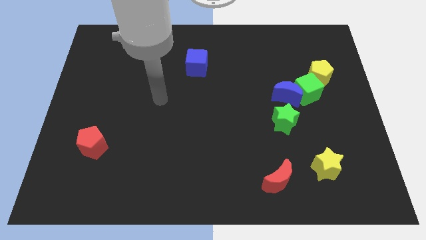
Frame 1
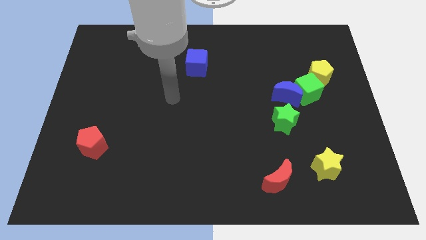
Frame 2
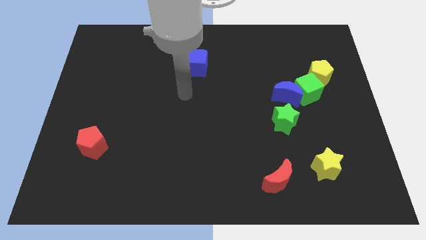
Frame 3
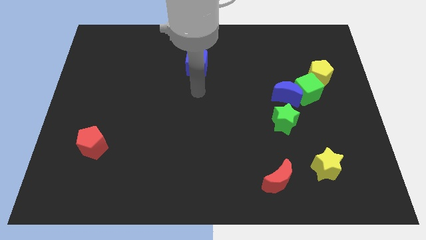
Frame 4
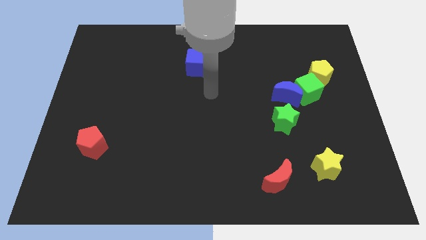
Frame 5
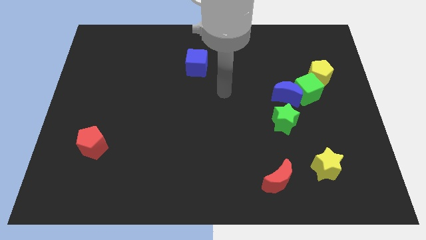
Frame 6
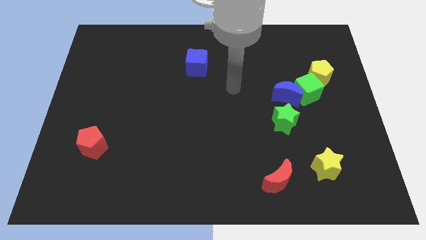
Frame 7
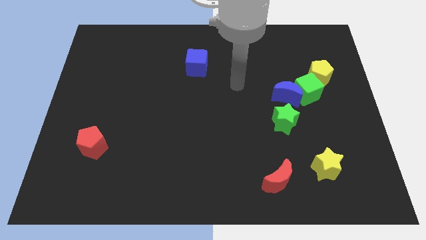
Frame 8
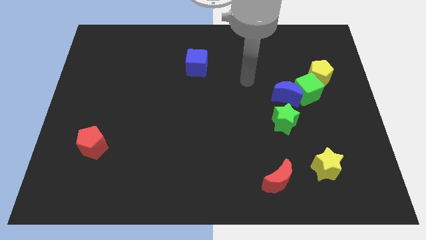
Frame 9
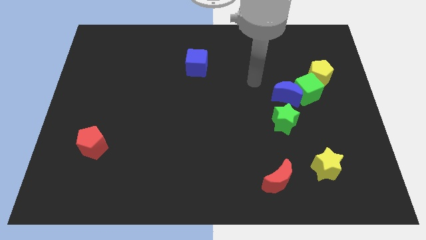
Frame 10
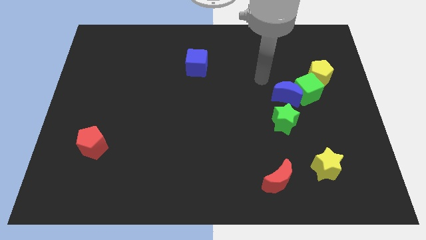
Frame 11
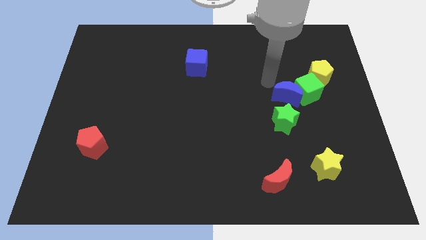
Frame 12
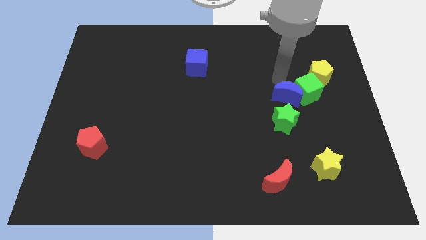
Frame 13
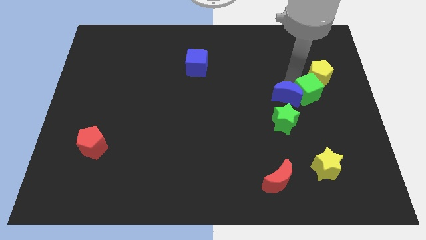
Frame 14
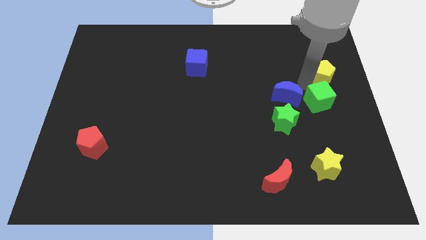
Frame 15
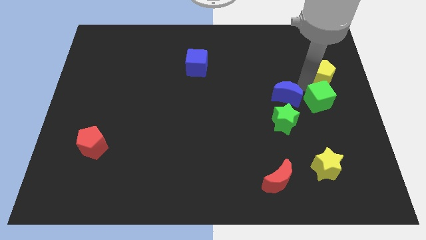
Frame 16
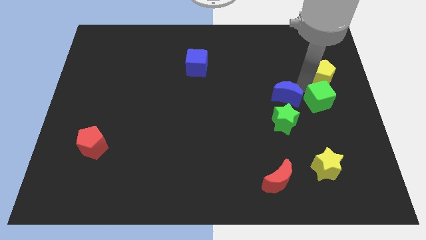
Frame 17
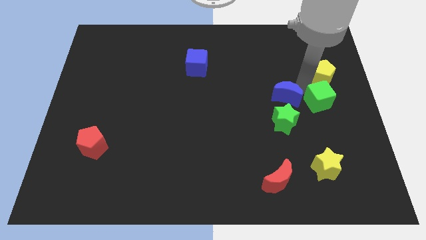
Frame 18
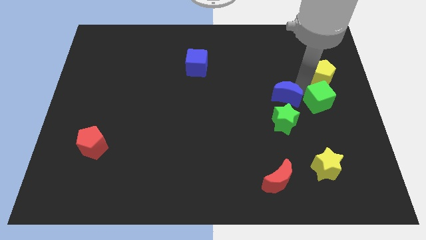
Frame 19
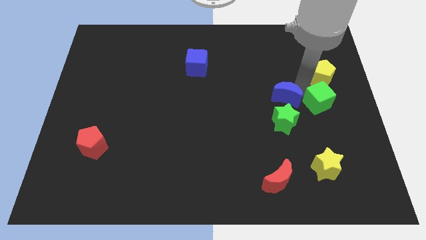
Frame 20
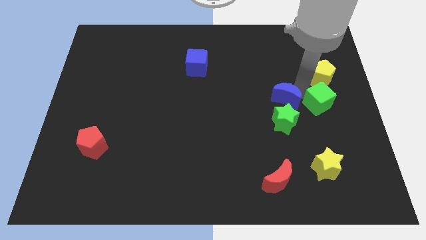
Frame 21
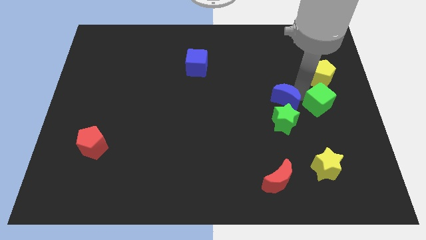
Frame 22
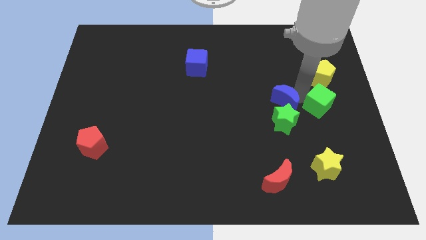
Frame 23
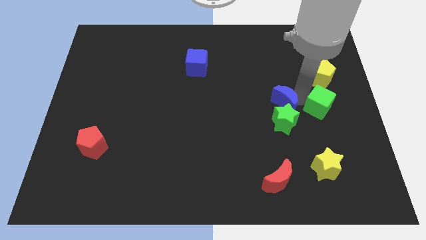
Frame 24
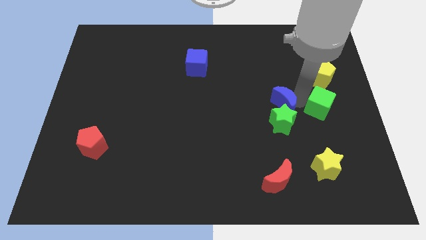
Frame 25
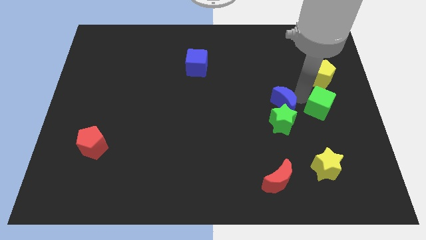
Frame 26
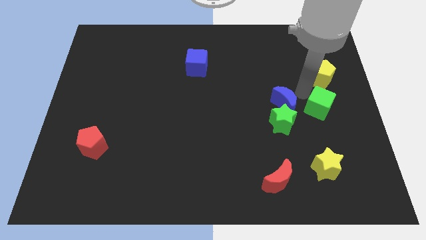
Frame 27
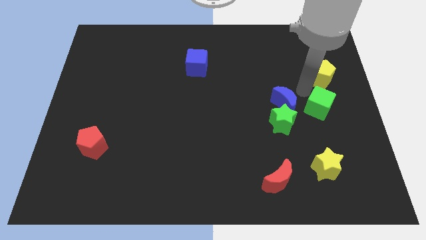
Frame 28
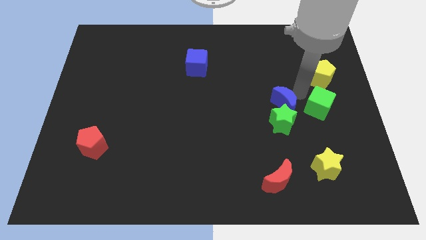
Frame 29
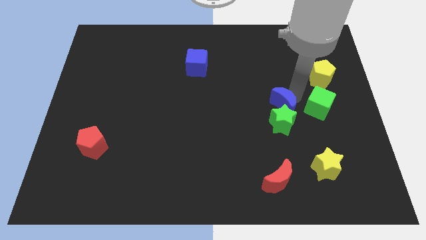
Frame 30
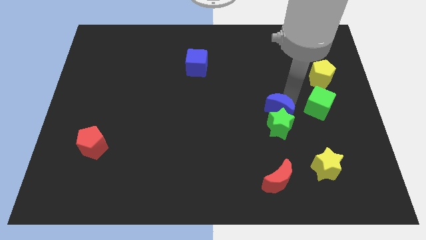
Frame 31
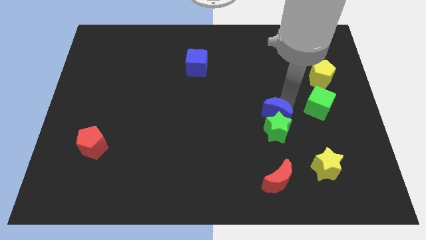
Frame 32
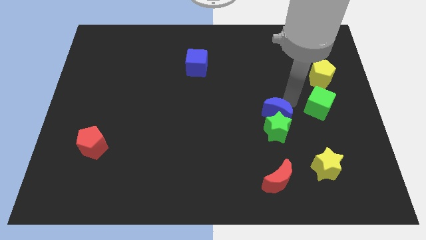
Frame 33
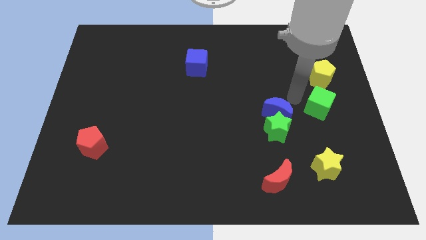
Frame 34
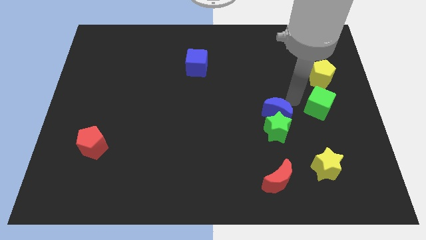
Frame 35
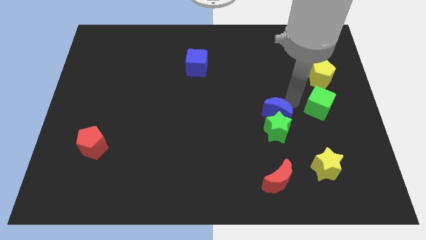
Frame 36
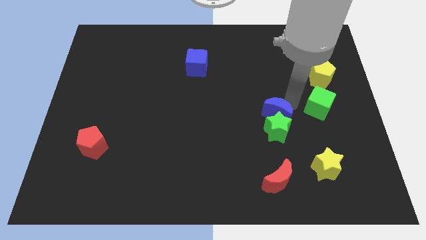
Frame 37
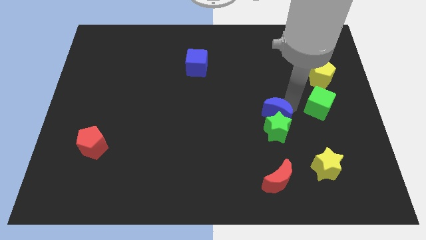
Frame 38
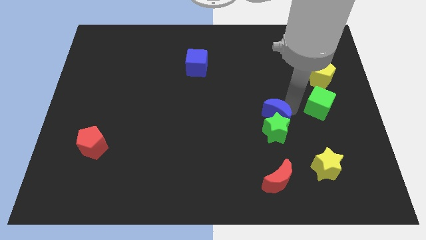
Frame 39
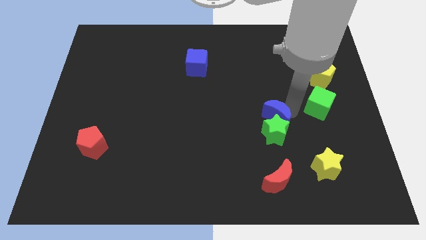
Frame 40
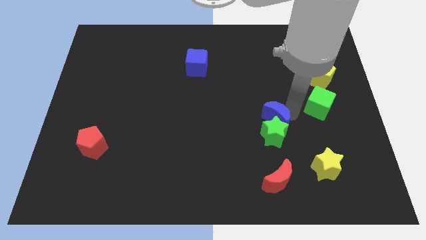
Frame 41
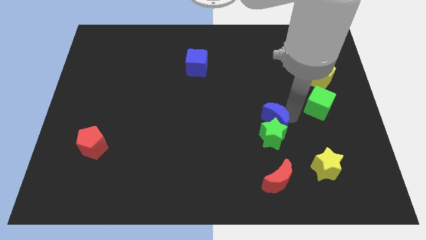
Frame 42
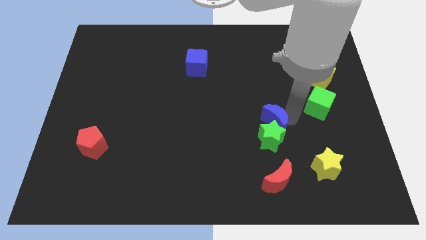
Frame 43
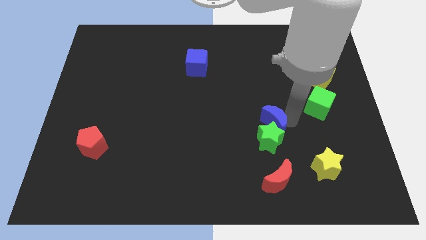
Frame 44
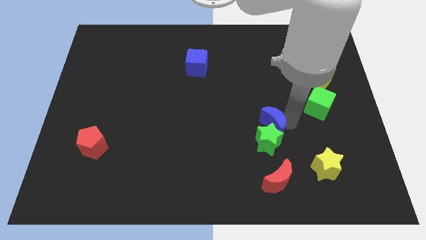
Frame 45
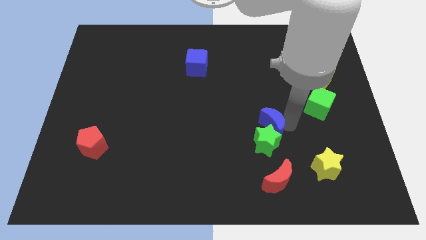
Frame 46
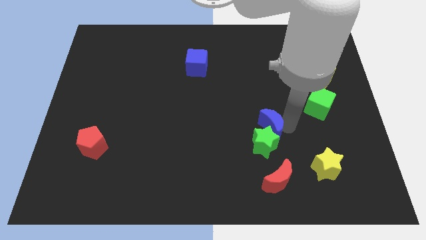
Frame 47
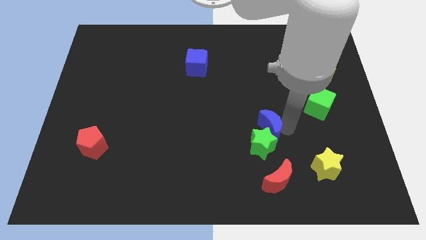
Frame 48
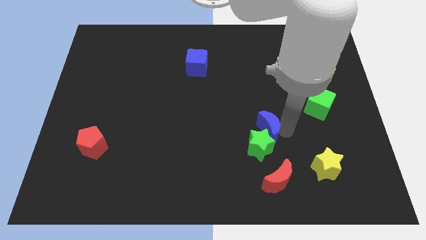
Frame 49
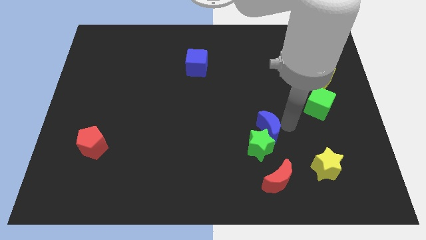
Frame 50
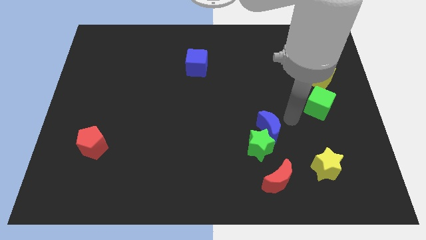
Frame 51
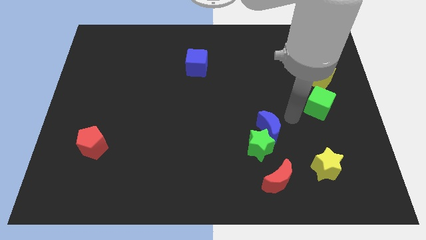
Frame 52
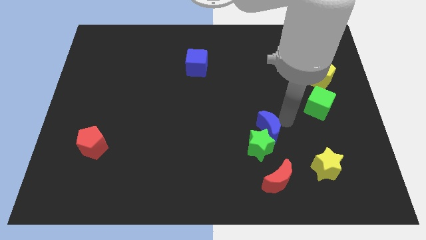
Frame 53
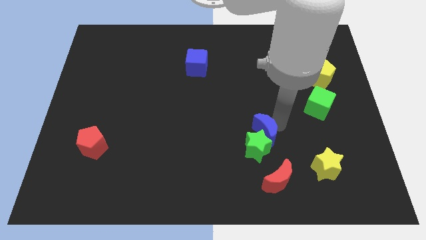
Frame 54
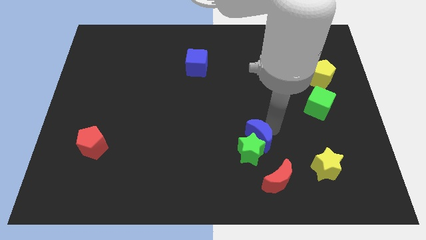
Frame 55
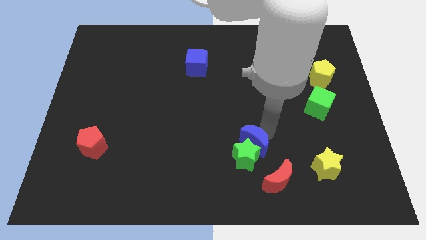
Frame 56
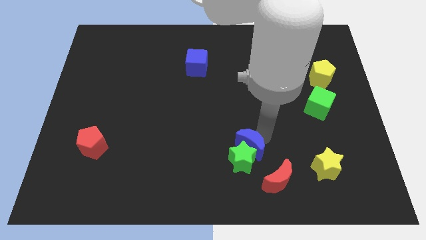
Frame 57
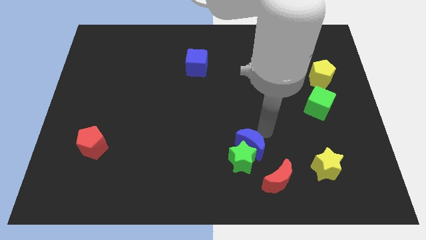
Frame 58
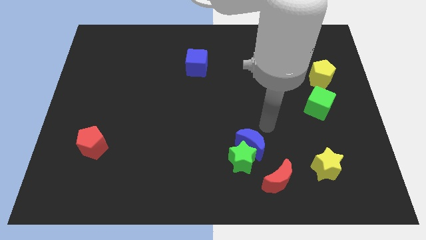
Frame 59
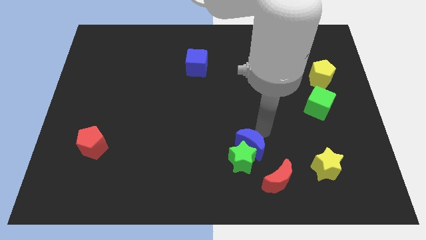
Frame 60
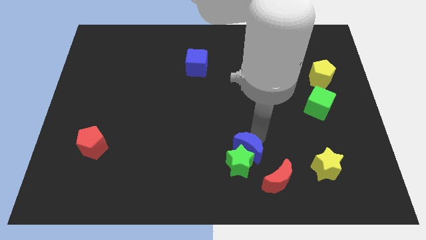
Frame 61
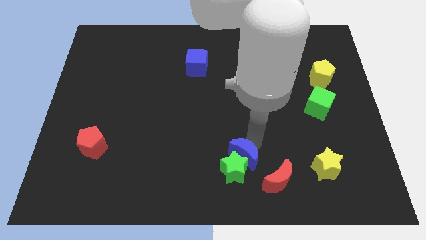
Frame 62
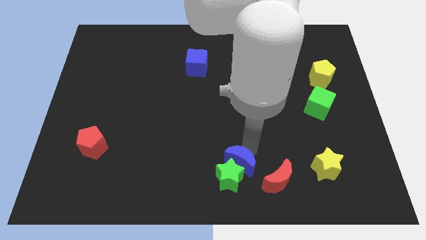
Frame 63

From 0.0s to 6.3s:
move the blue moon to the bottom side
